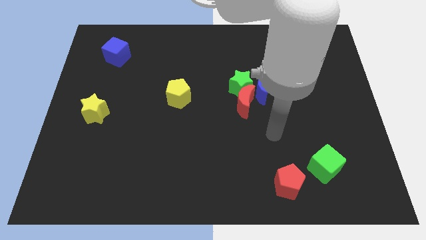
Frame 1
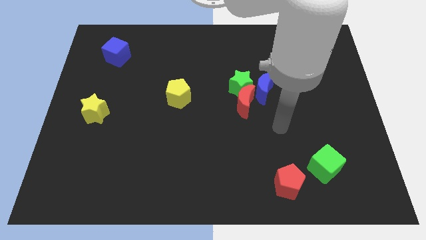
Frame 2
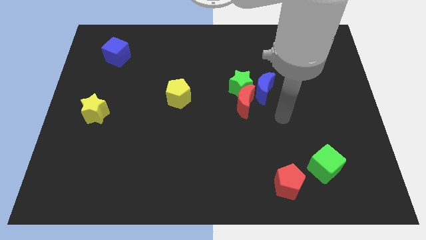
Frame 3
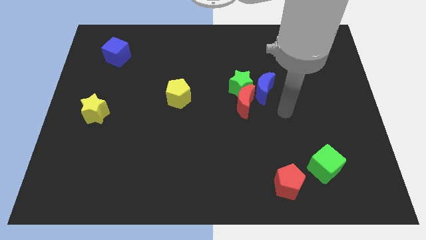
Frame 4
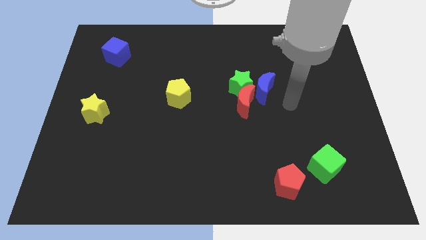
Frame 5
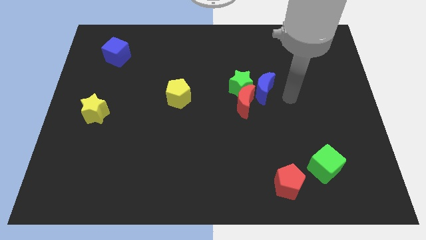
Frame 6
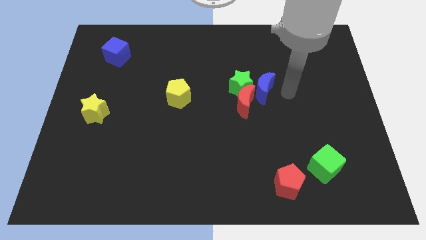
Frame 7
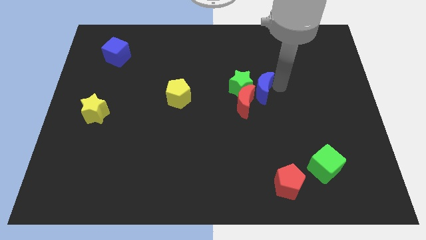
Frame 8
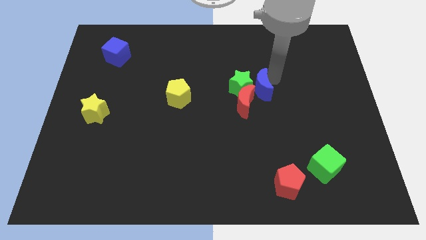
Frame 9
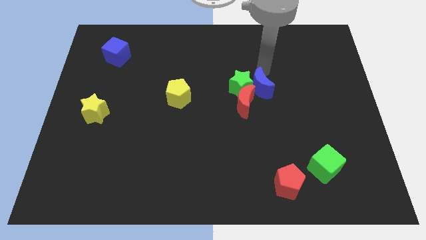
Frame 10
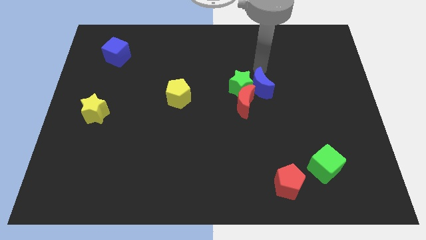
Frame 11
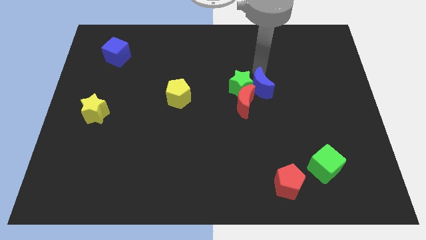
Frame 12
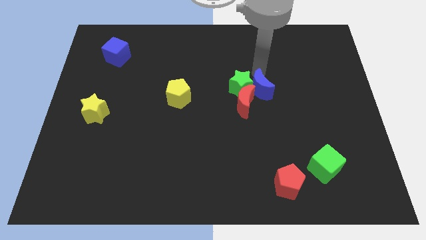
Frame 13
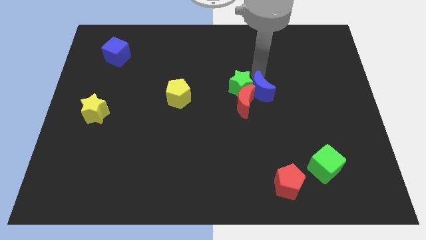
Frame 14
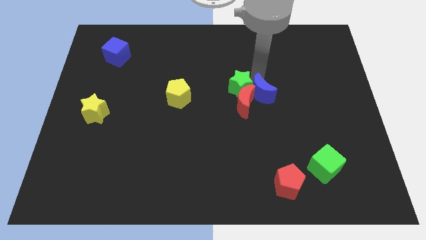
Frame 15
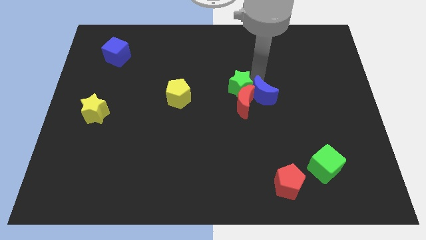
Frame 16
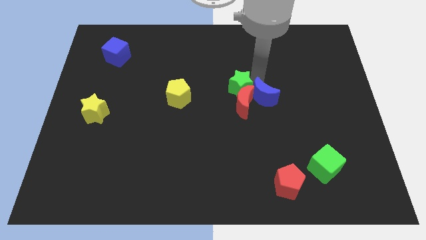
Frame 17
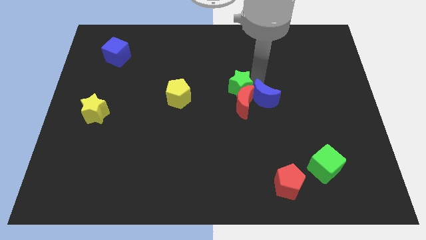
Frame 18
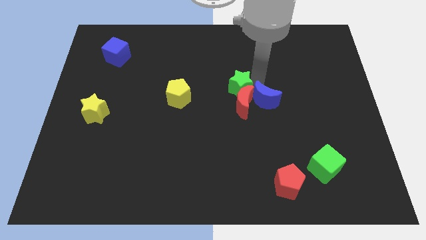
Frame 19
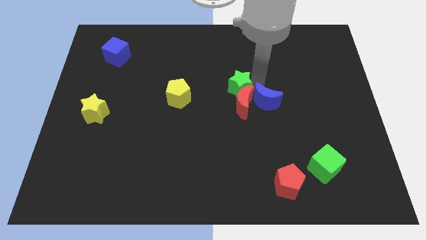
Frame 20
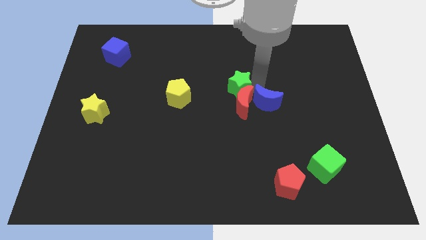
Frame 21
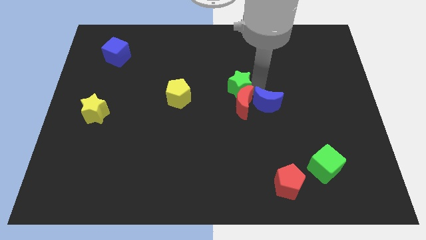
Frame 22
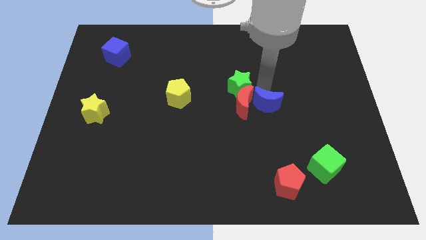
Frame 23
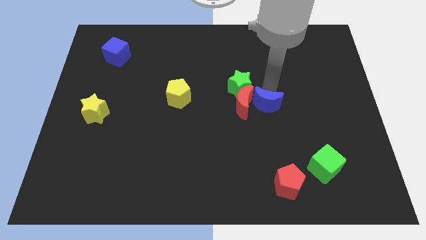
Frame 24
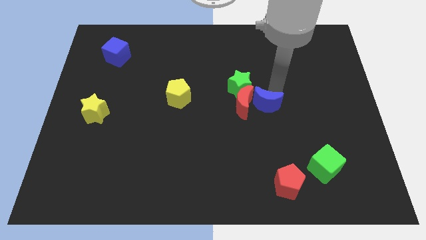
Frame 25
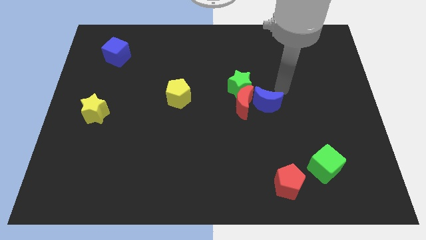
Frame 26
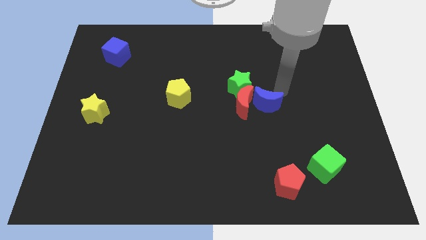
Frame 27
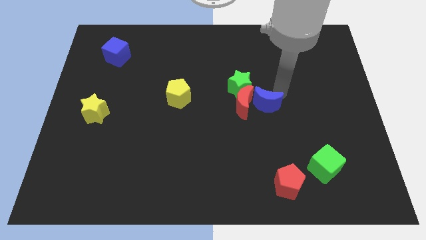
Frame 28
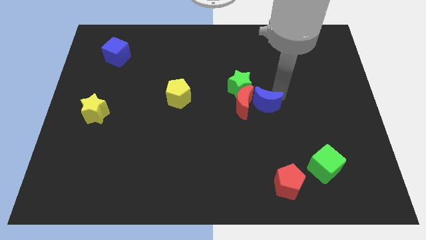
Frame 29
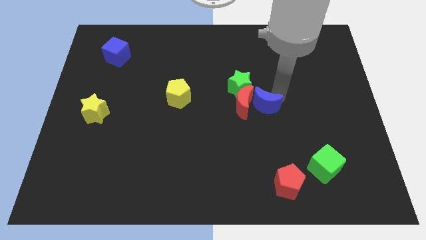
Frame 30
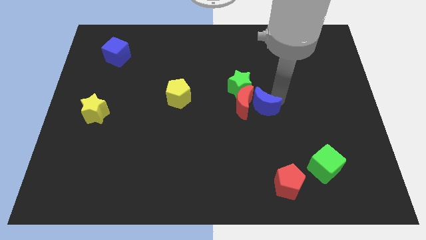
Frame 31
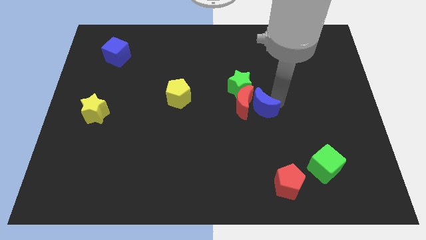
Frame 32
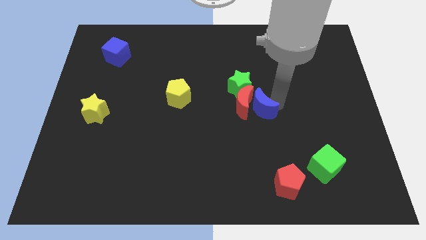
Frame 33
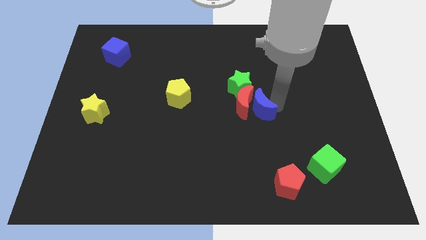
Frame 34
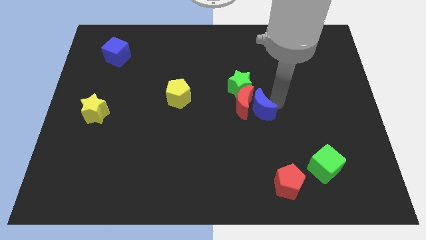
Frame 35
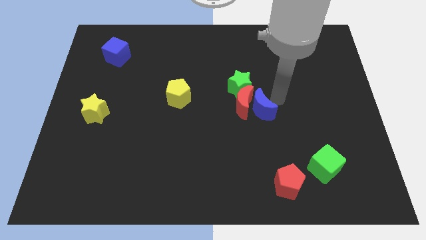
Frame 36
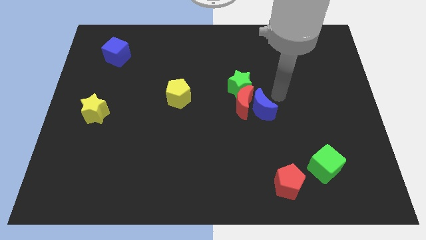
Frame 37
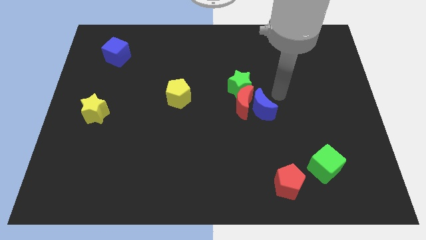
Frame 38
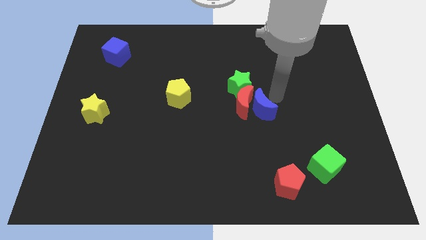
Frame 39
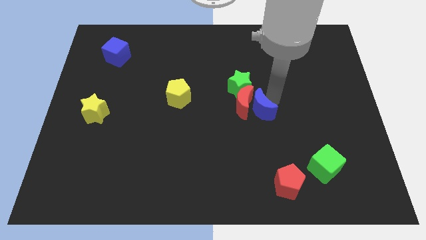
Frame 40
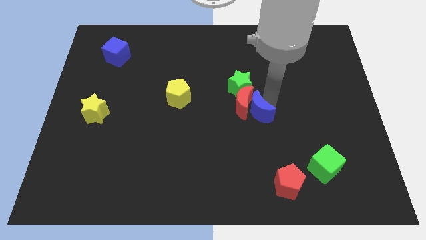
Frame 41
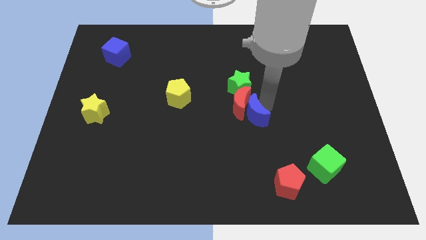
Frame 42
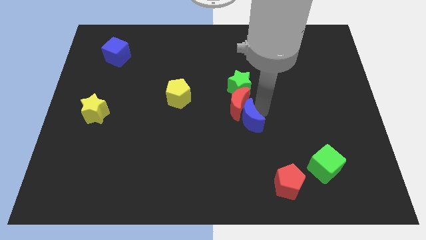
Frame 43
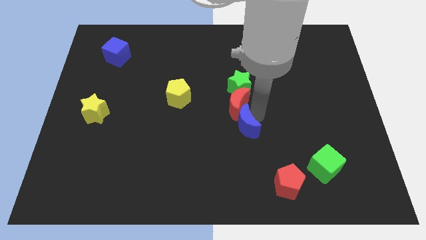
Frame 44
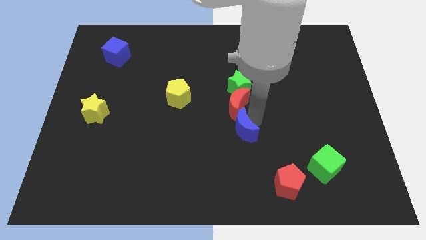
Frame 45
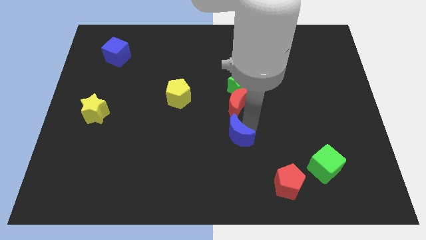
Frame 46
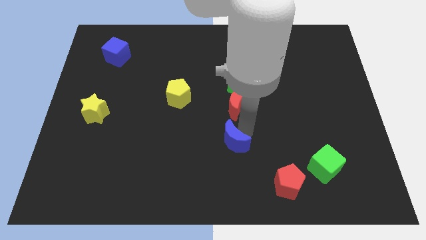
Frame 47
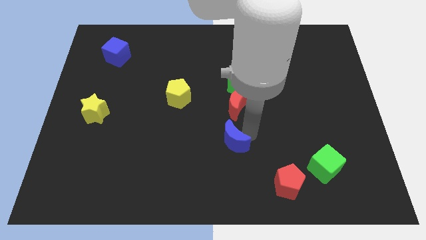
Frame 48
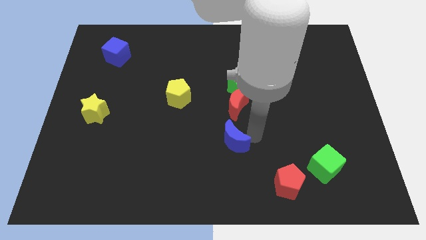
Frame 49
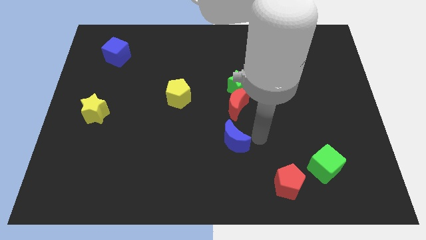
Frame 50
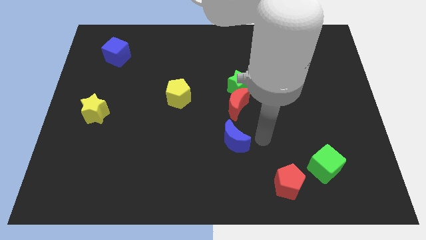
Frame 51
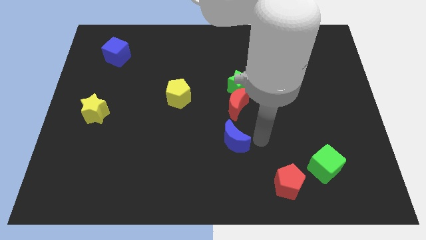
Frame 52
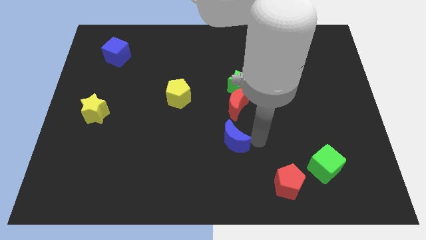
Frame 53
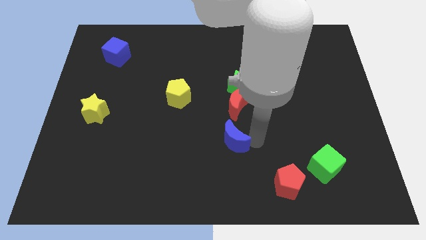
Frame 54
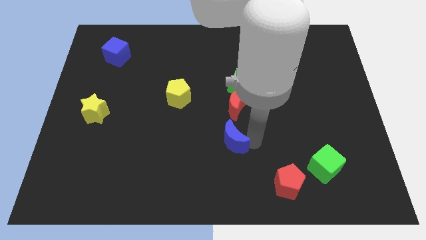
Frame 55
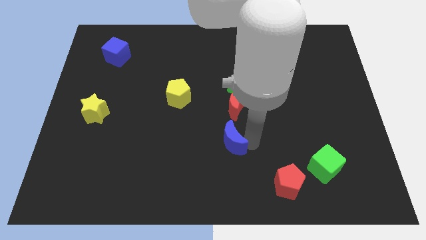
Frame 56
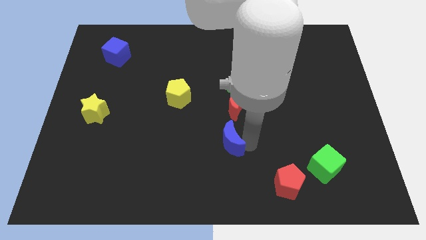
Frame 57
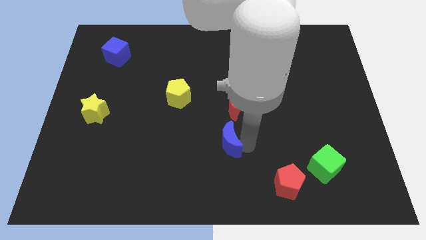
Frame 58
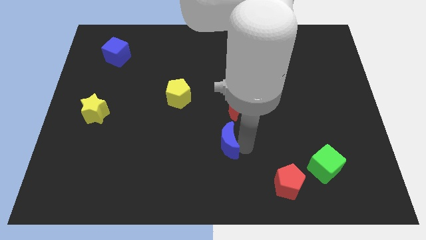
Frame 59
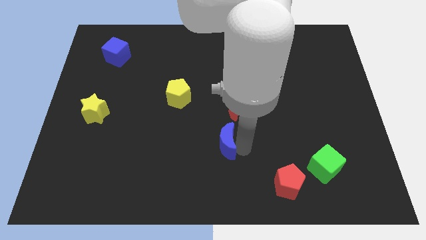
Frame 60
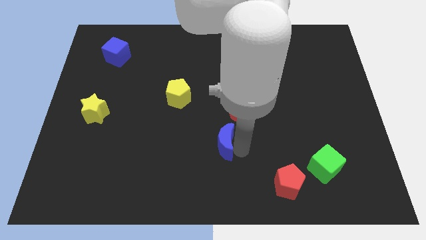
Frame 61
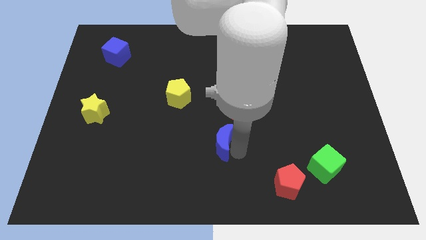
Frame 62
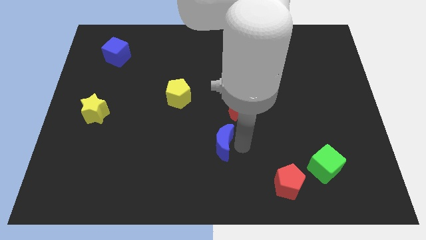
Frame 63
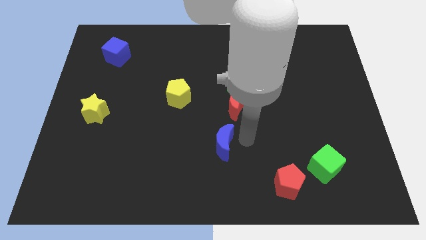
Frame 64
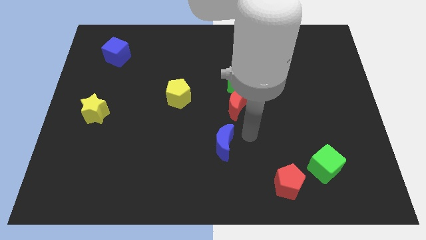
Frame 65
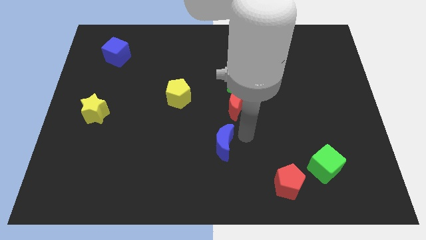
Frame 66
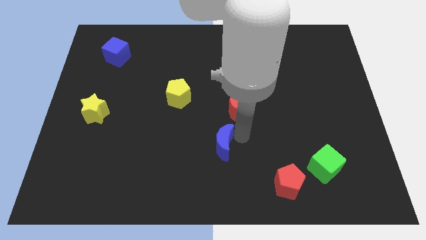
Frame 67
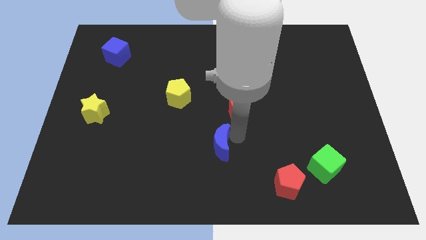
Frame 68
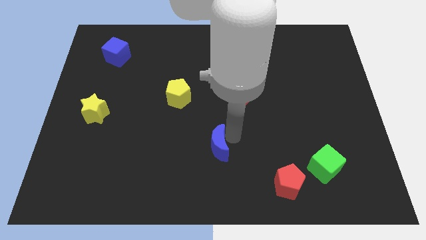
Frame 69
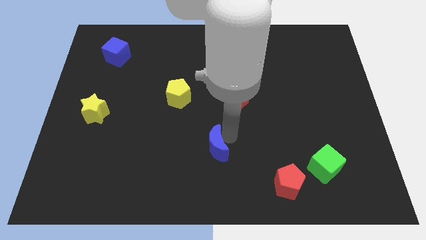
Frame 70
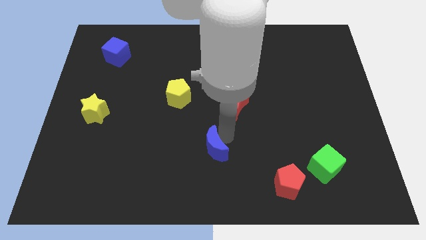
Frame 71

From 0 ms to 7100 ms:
slide the blue moon downwards and left

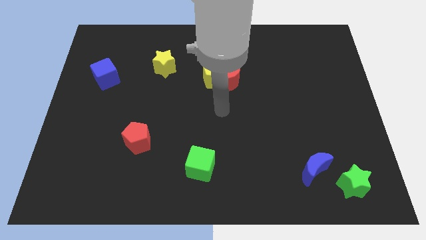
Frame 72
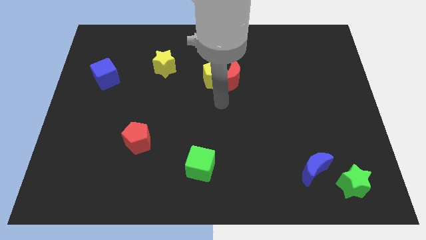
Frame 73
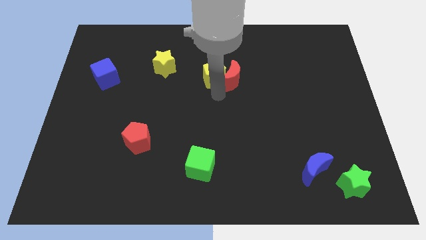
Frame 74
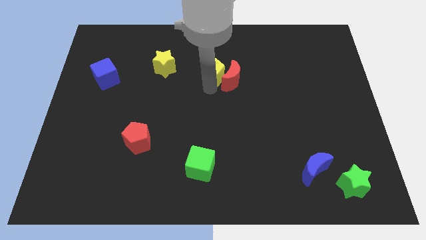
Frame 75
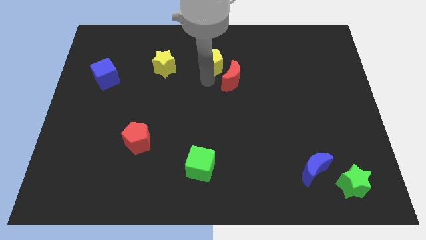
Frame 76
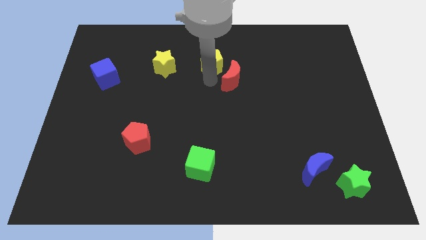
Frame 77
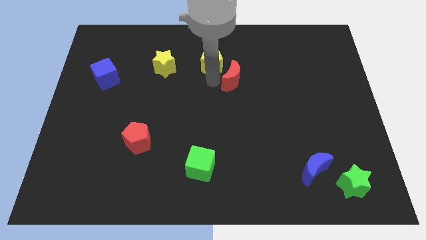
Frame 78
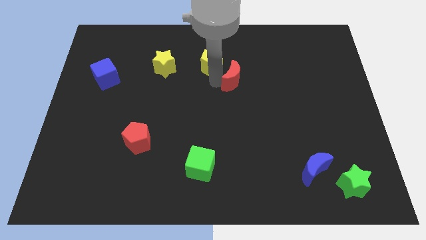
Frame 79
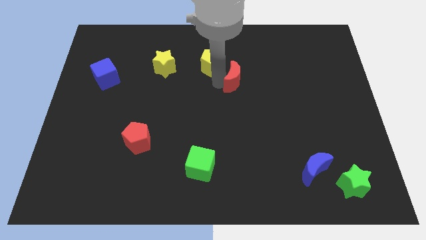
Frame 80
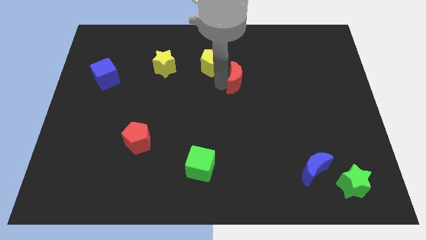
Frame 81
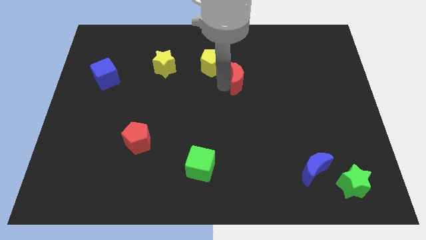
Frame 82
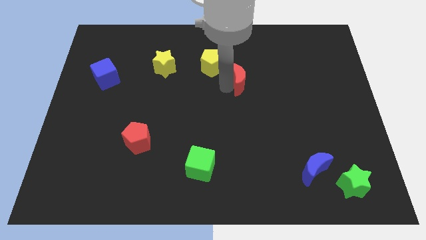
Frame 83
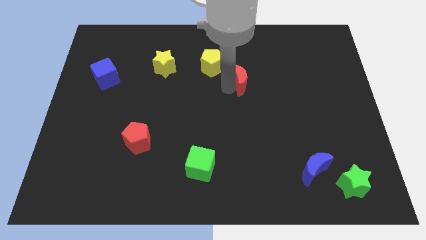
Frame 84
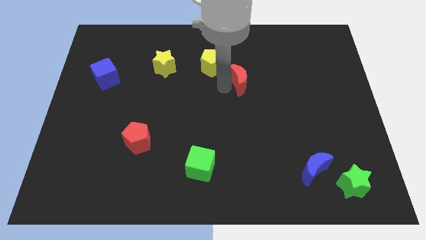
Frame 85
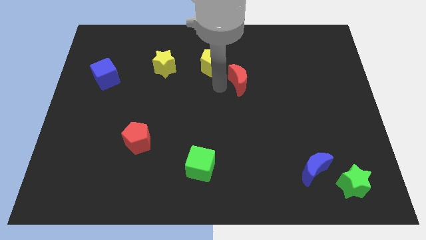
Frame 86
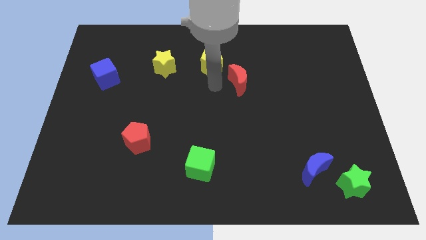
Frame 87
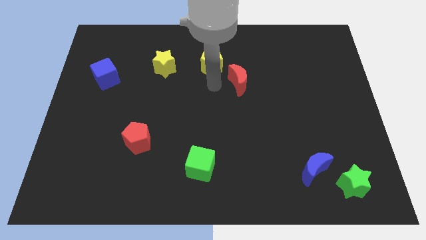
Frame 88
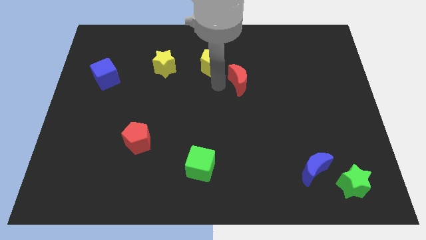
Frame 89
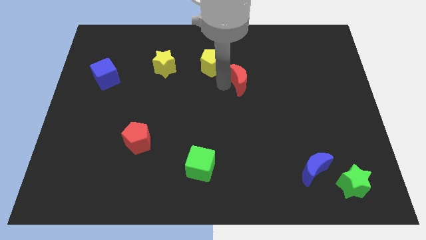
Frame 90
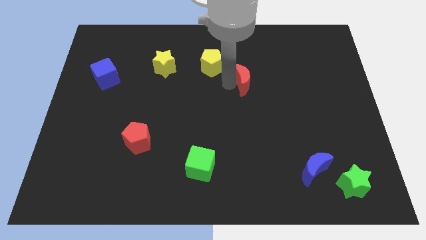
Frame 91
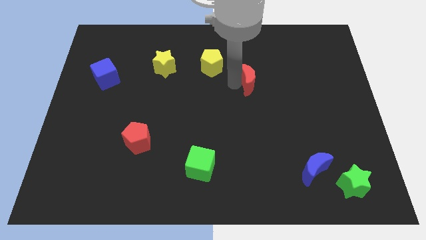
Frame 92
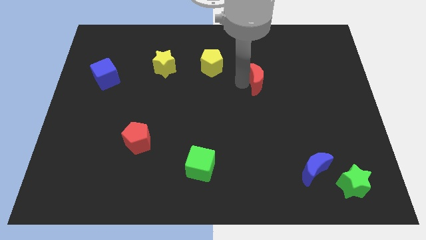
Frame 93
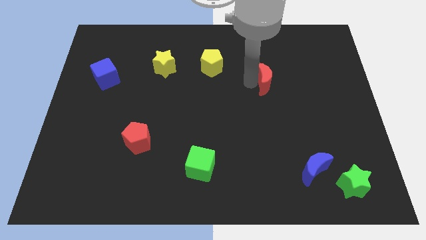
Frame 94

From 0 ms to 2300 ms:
slightly move the red moon to the right
